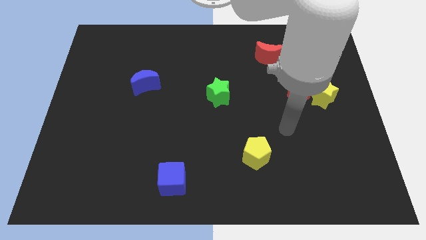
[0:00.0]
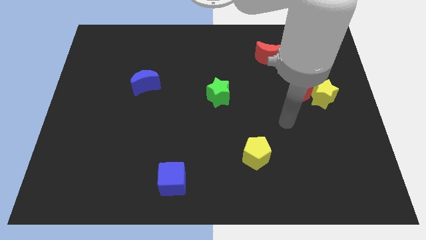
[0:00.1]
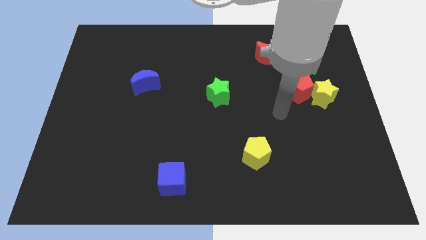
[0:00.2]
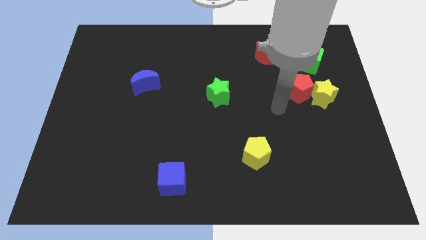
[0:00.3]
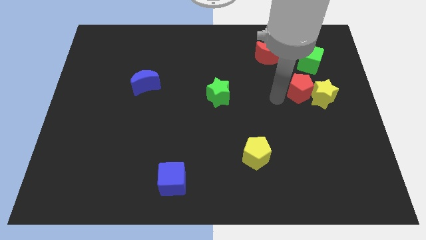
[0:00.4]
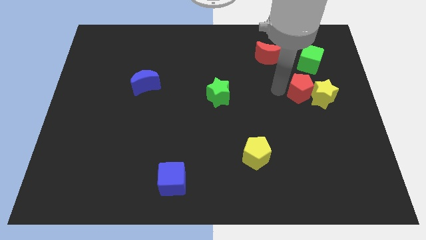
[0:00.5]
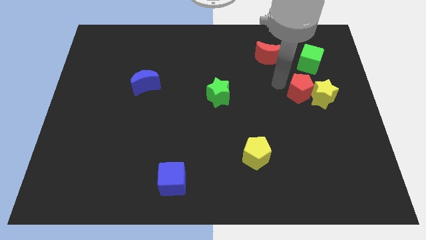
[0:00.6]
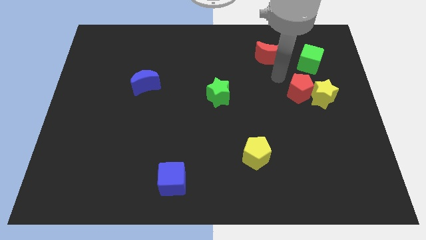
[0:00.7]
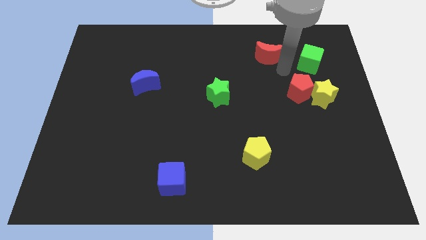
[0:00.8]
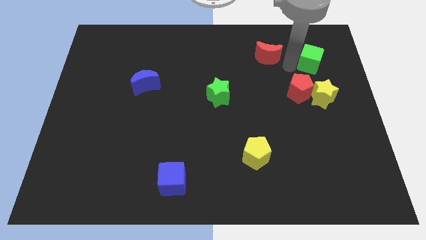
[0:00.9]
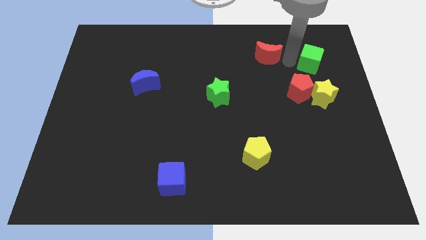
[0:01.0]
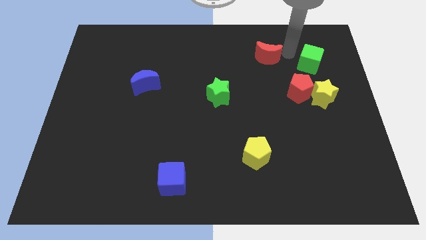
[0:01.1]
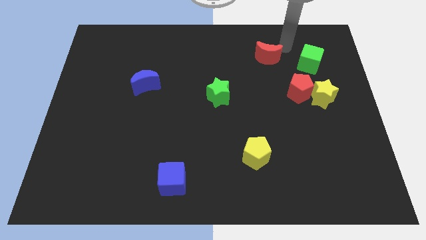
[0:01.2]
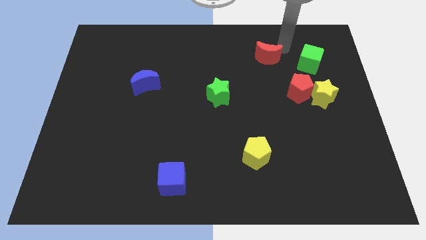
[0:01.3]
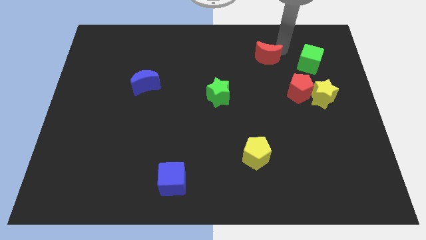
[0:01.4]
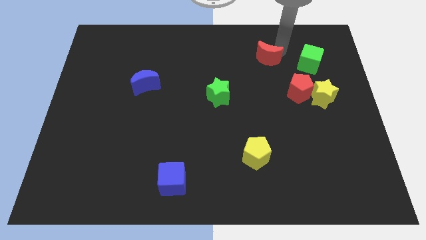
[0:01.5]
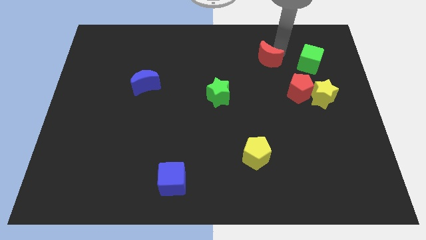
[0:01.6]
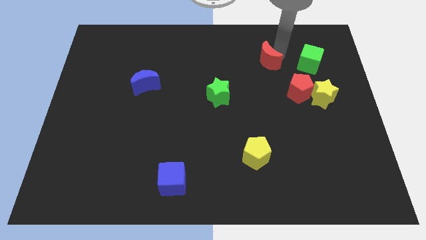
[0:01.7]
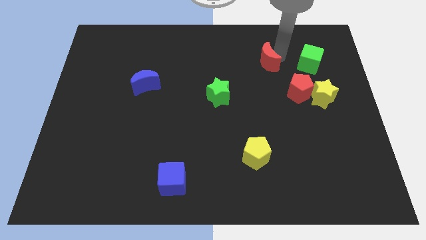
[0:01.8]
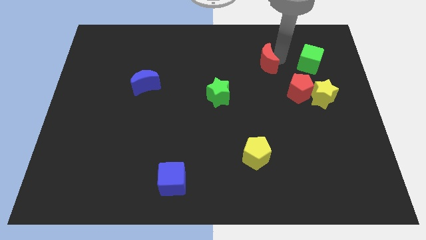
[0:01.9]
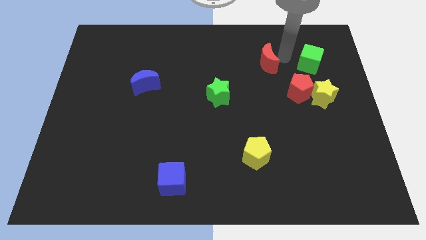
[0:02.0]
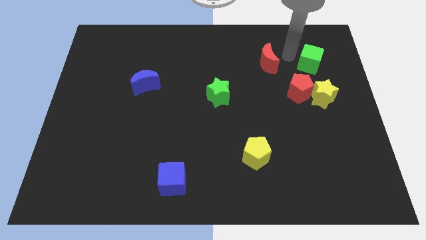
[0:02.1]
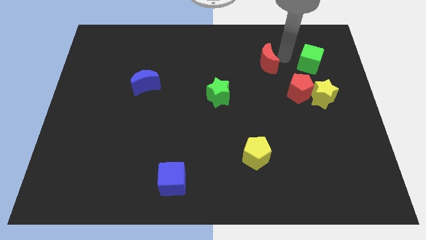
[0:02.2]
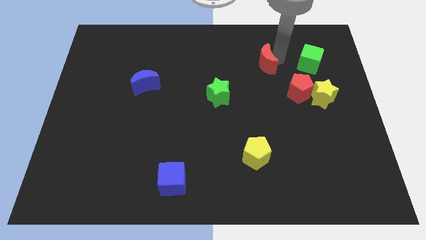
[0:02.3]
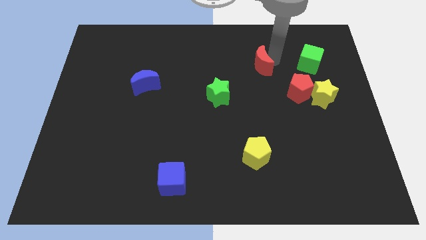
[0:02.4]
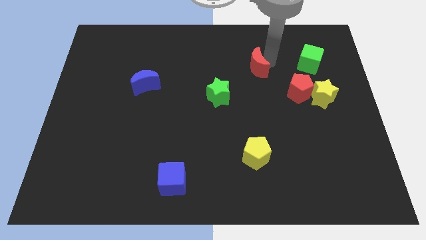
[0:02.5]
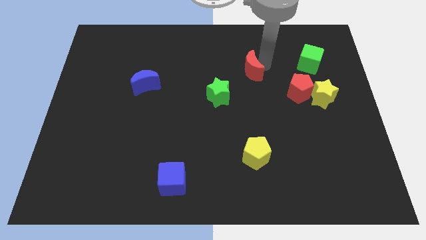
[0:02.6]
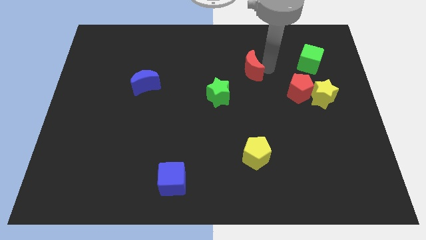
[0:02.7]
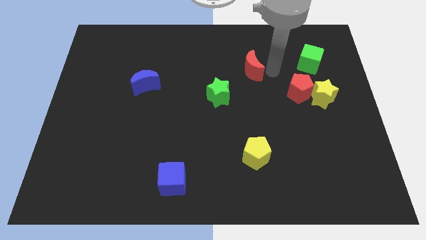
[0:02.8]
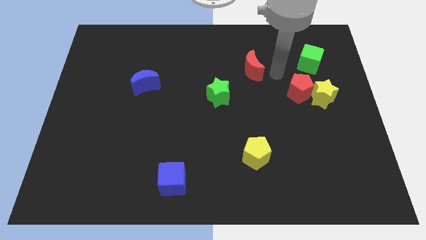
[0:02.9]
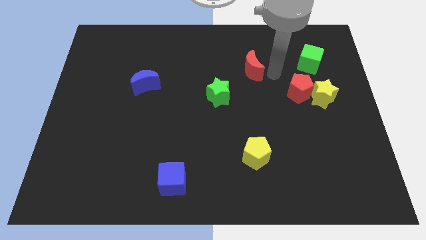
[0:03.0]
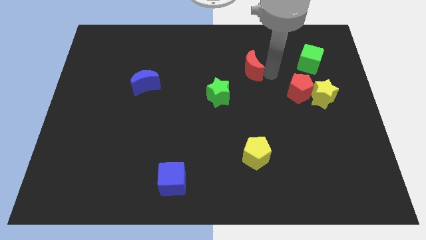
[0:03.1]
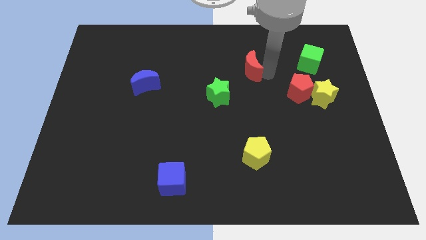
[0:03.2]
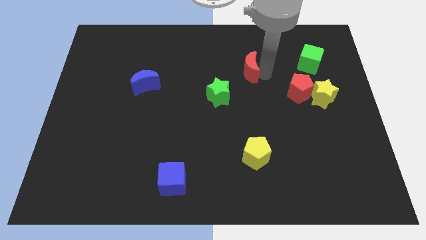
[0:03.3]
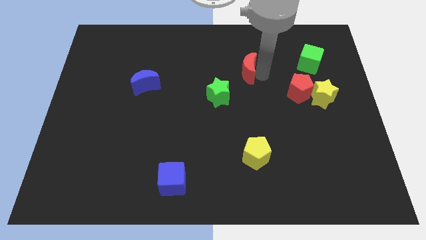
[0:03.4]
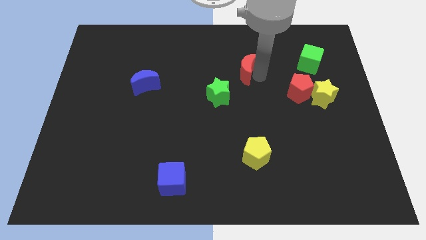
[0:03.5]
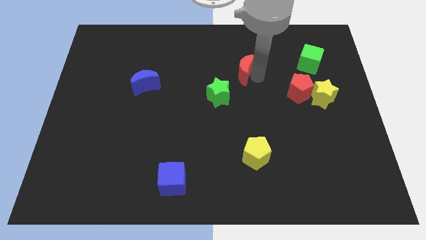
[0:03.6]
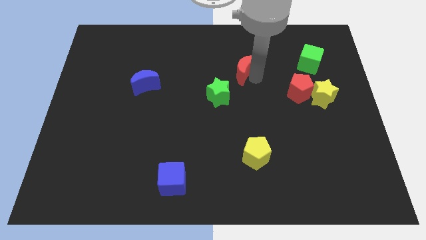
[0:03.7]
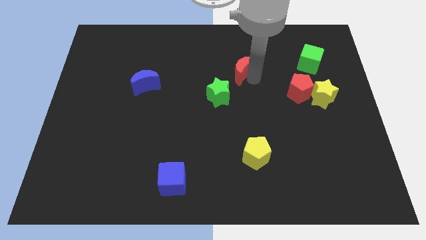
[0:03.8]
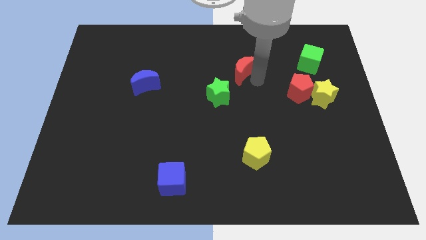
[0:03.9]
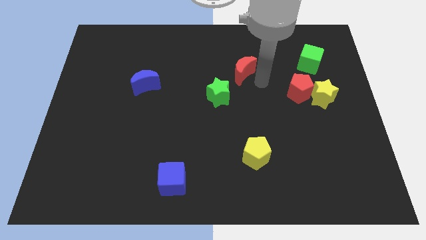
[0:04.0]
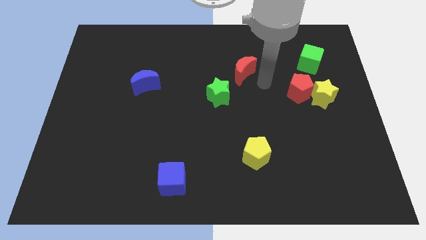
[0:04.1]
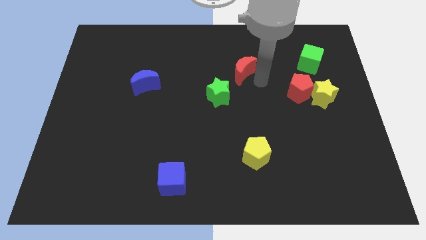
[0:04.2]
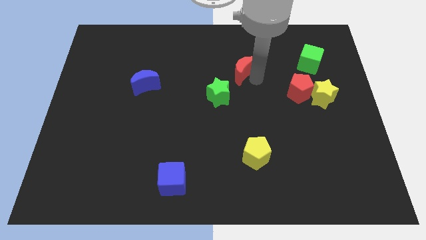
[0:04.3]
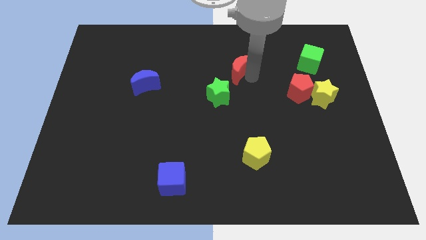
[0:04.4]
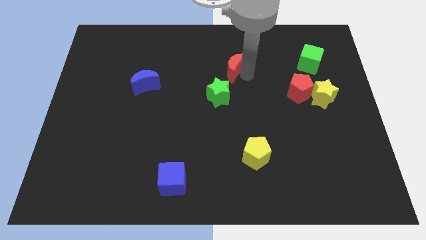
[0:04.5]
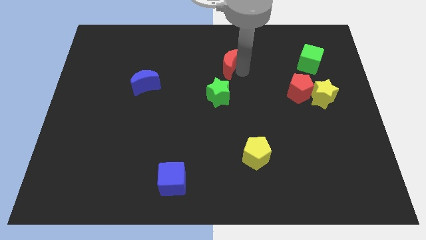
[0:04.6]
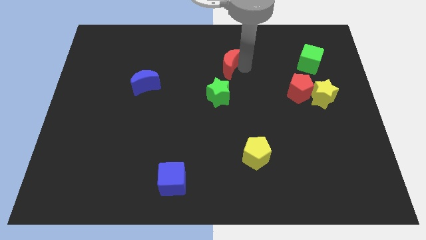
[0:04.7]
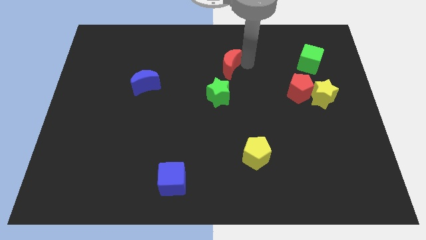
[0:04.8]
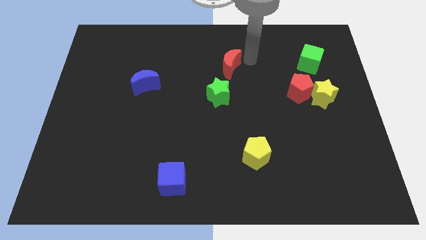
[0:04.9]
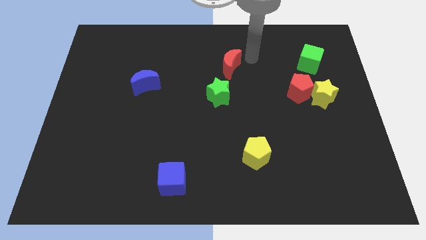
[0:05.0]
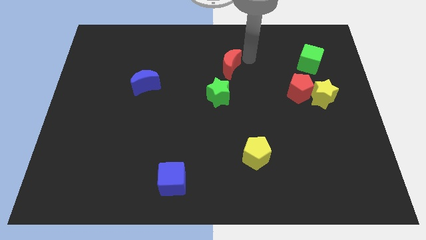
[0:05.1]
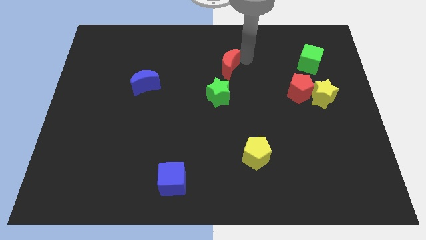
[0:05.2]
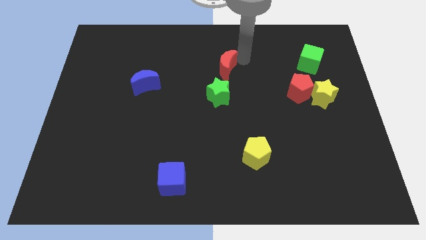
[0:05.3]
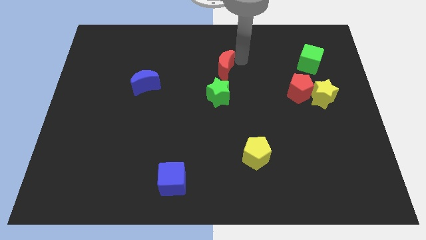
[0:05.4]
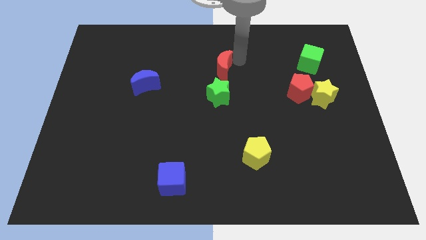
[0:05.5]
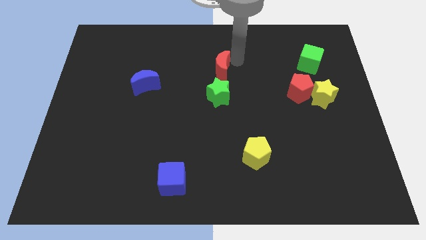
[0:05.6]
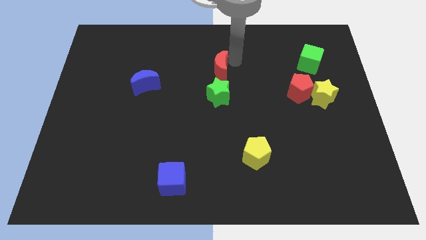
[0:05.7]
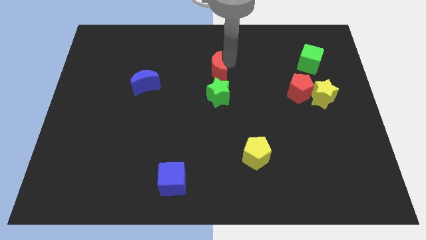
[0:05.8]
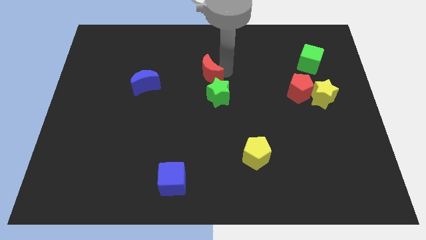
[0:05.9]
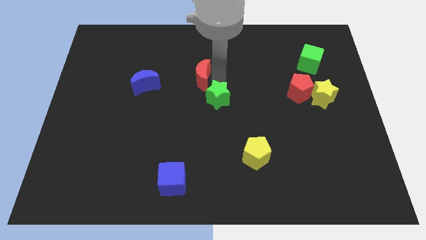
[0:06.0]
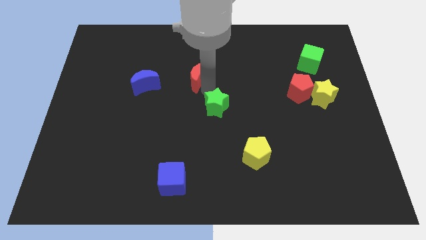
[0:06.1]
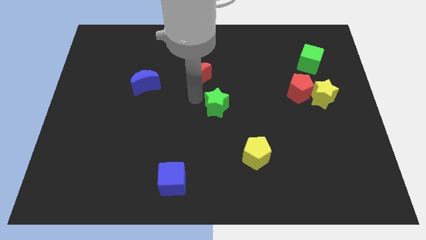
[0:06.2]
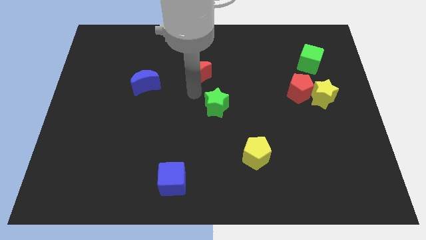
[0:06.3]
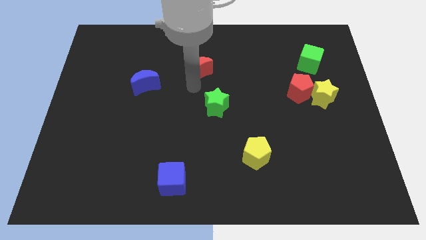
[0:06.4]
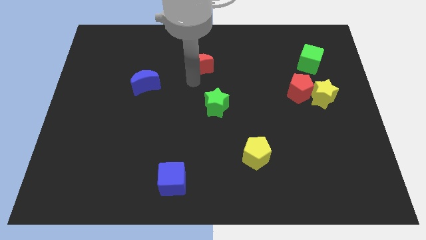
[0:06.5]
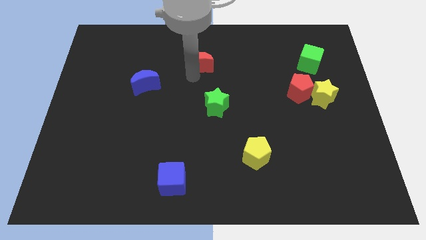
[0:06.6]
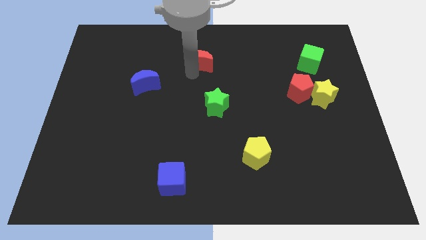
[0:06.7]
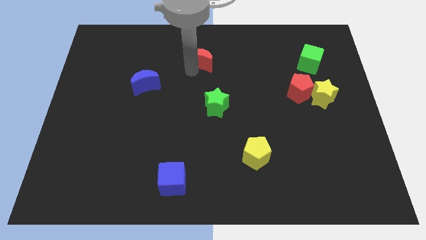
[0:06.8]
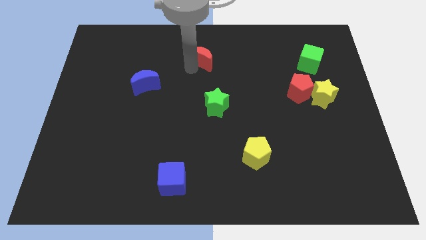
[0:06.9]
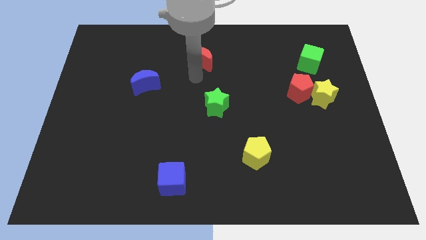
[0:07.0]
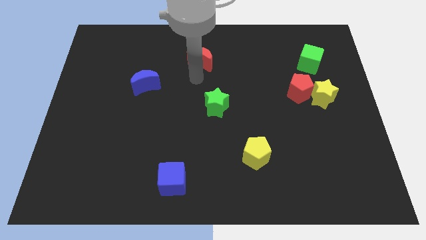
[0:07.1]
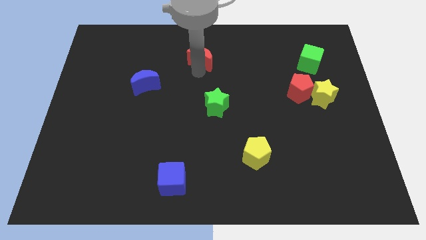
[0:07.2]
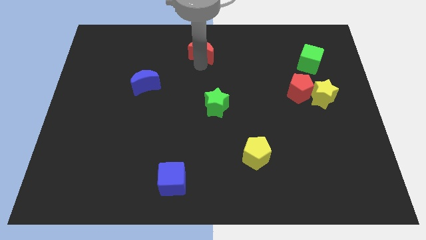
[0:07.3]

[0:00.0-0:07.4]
move the red moon to the top side
